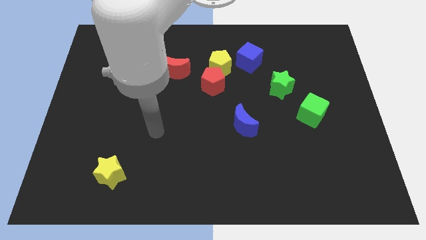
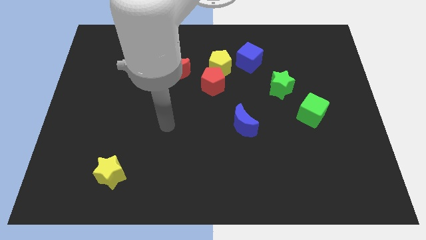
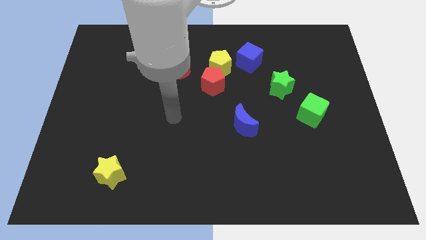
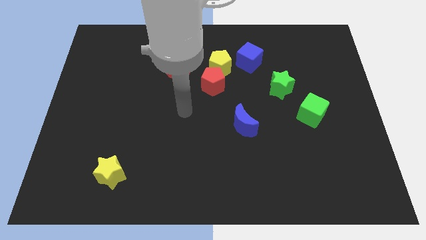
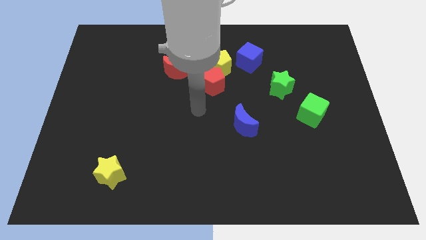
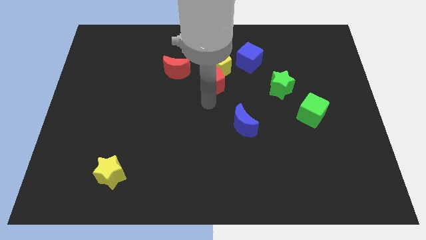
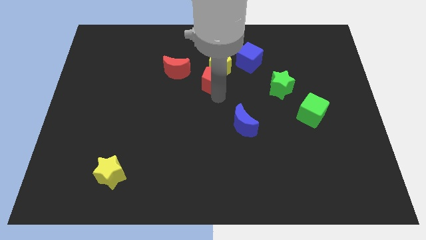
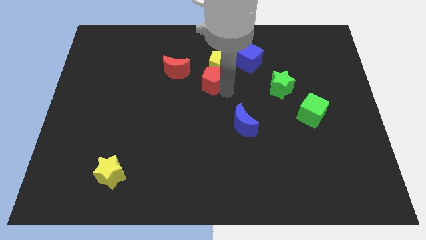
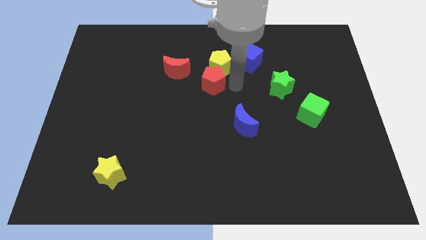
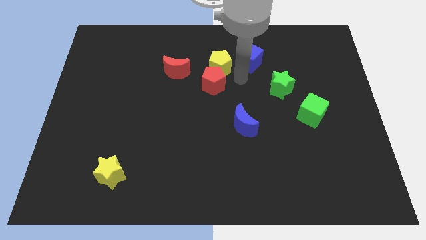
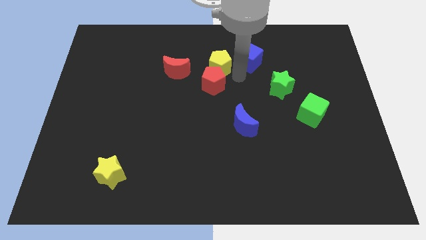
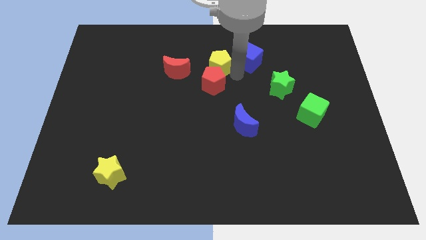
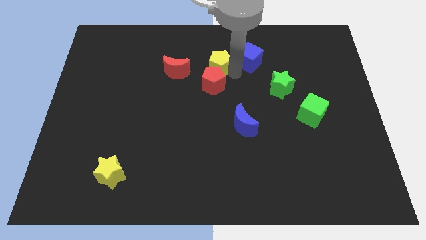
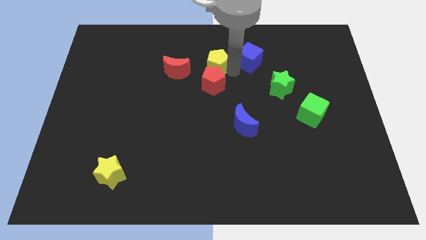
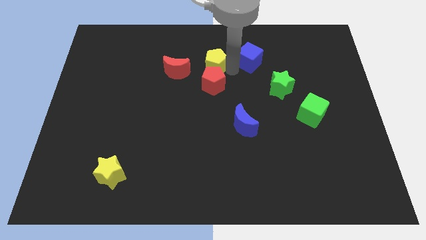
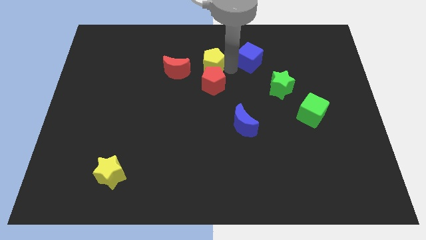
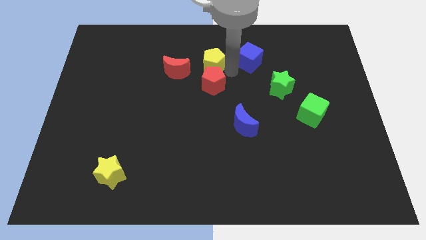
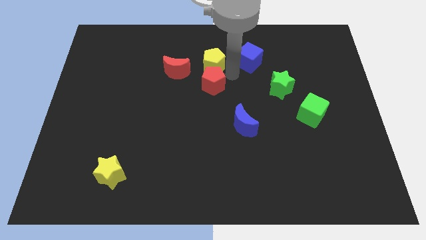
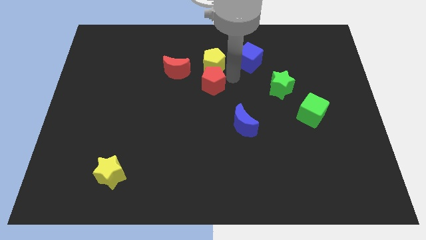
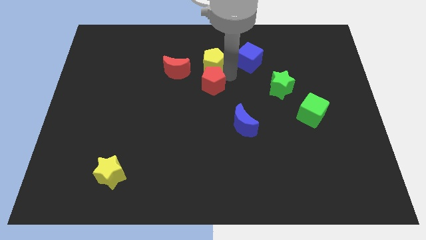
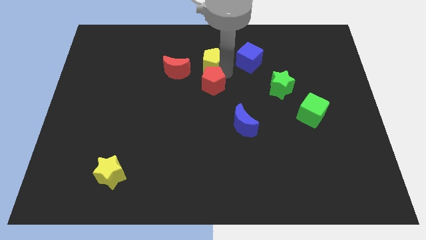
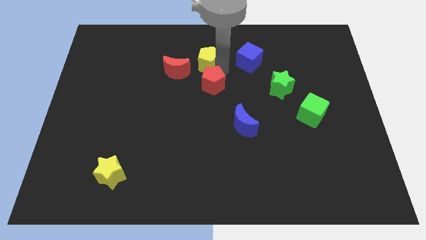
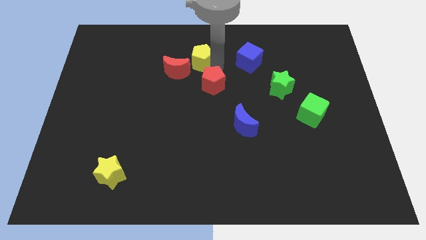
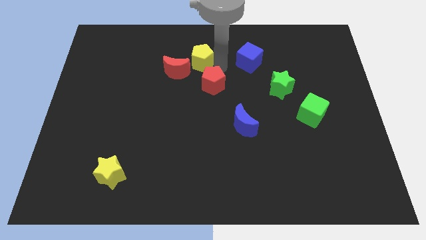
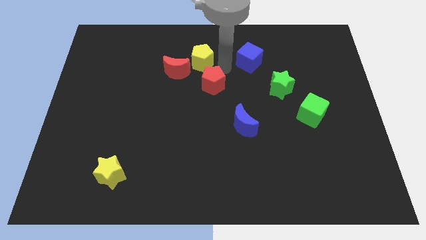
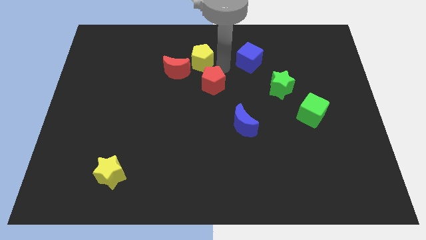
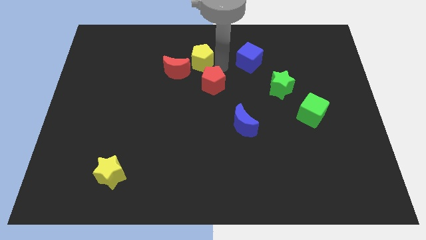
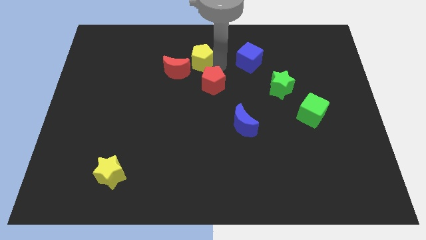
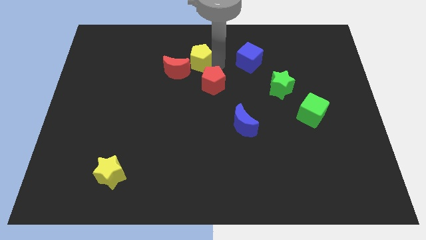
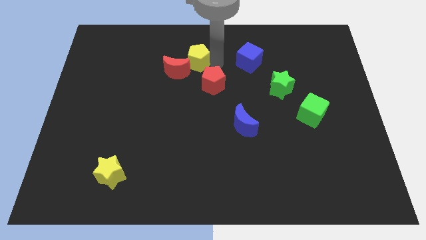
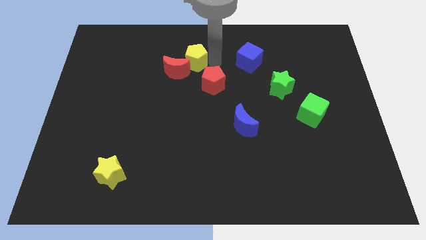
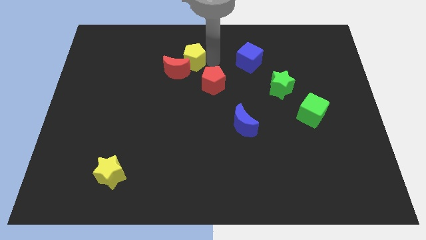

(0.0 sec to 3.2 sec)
pull the yellow pentagon apart from the red pentagon and blue cube

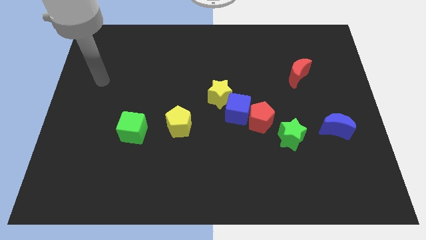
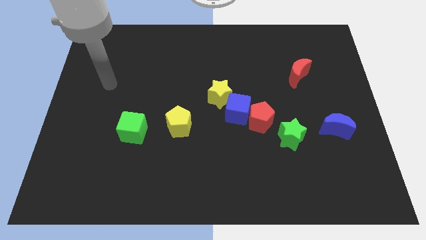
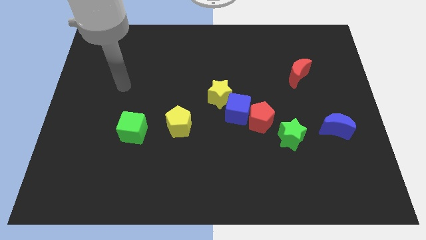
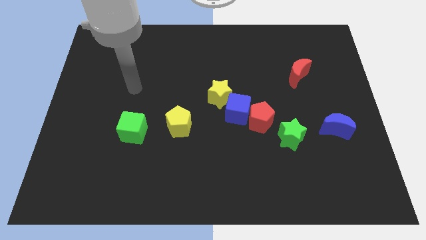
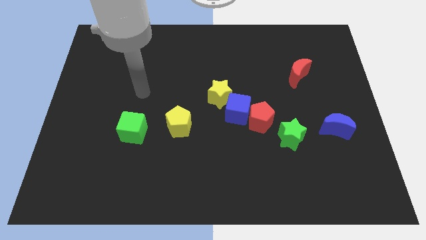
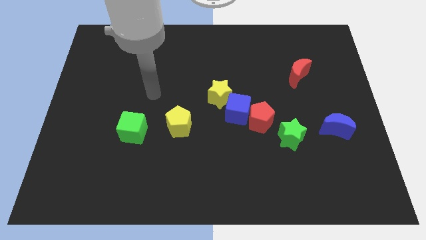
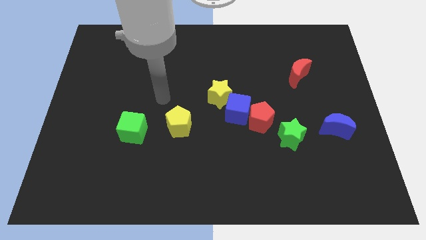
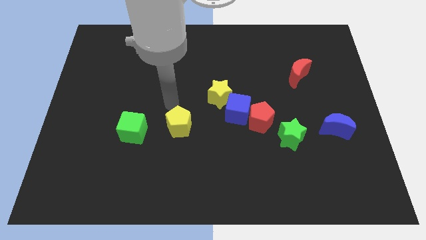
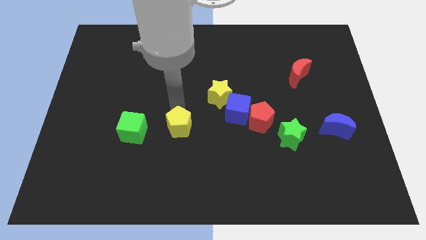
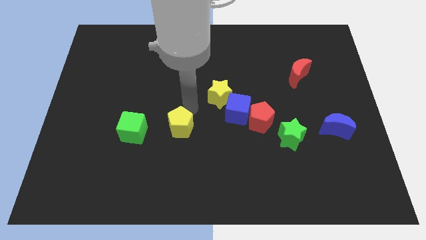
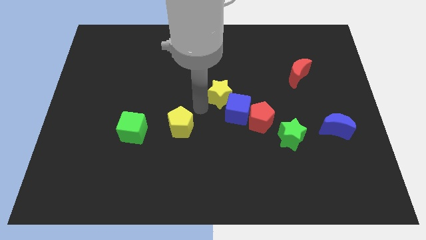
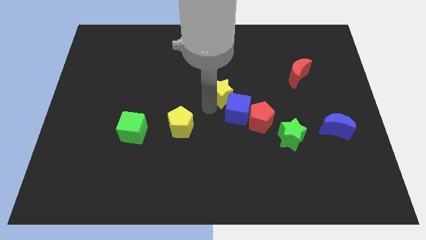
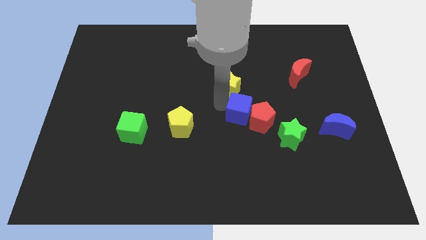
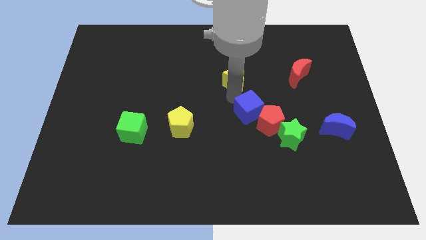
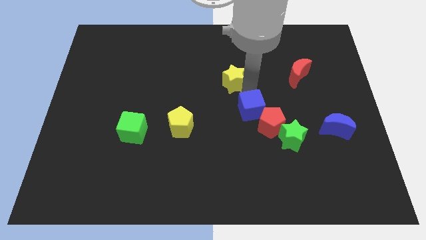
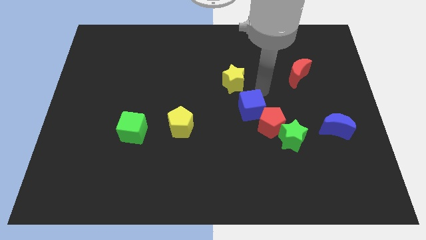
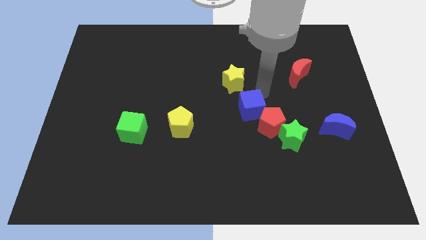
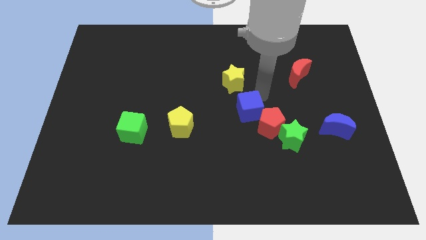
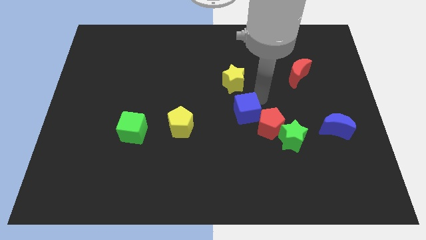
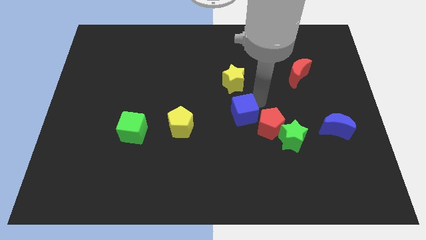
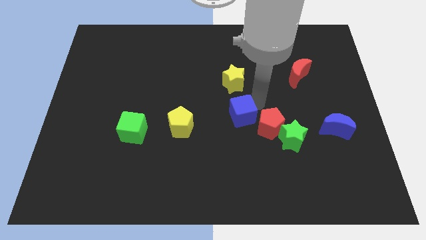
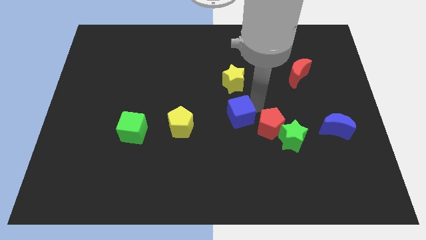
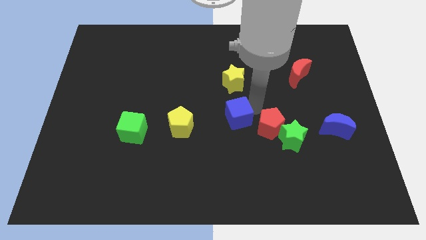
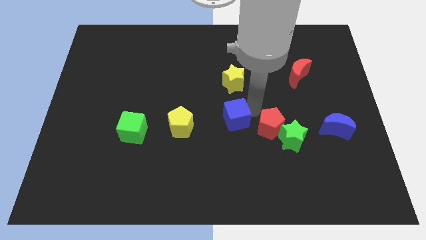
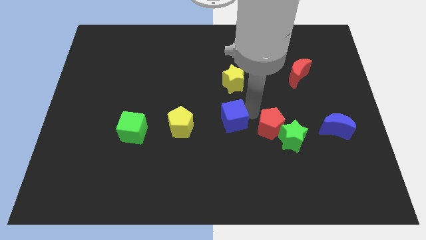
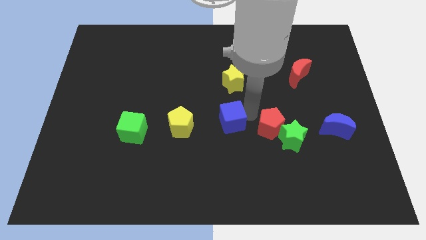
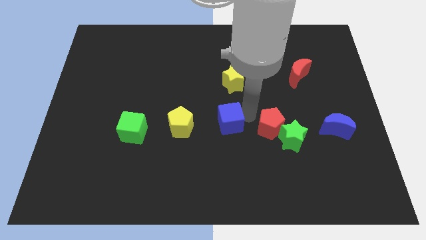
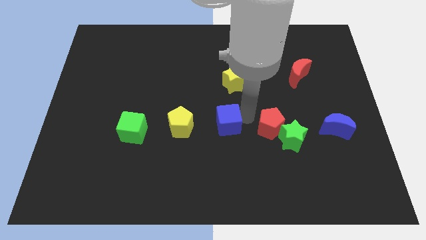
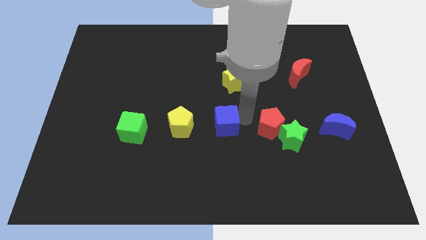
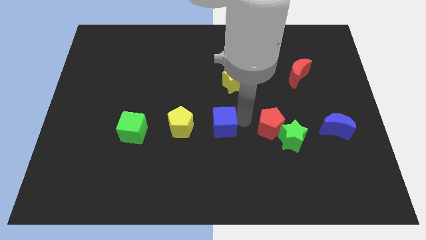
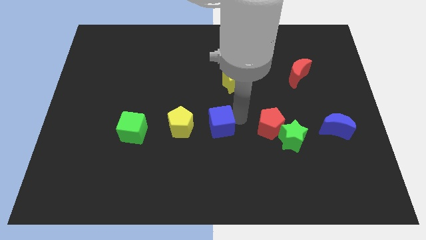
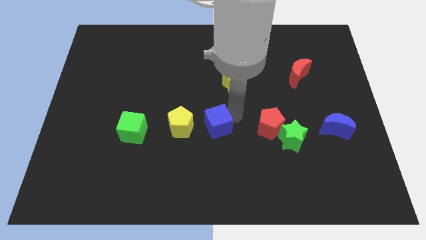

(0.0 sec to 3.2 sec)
move the blue cube away from the red pentagon and yellow star

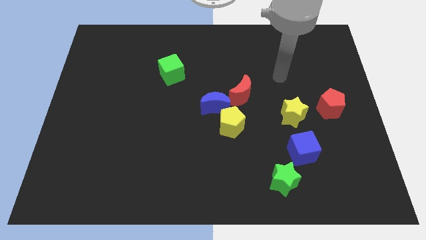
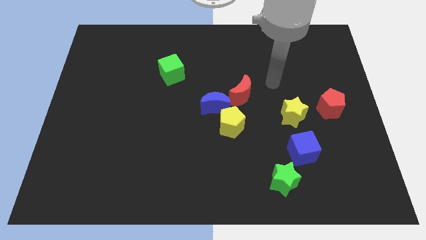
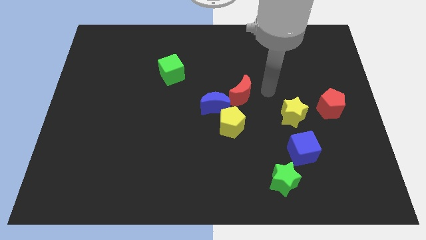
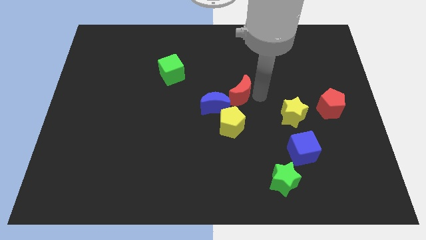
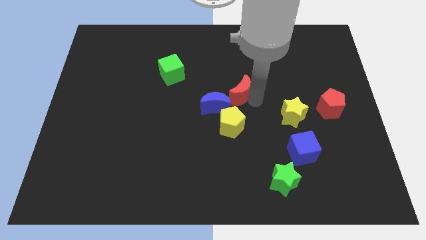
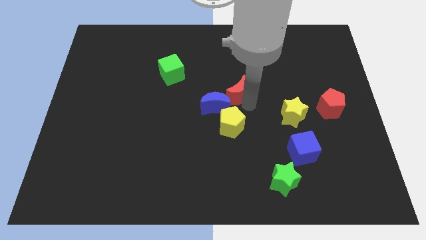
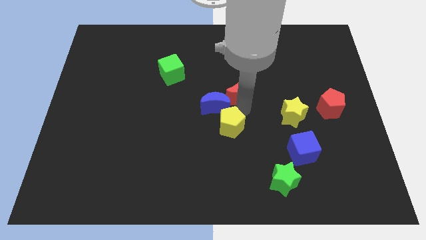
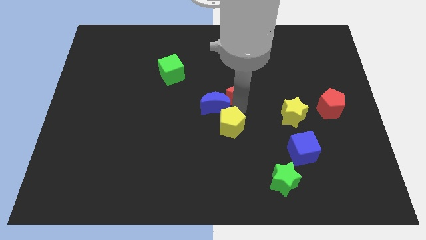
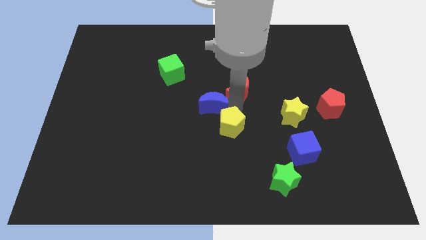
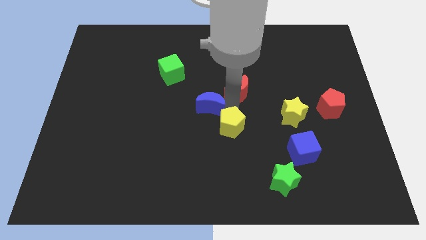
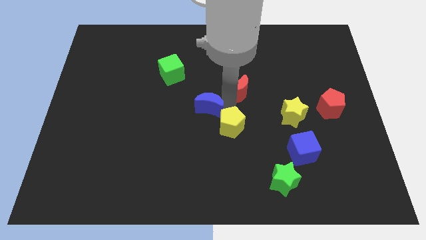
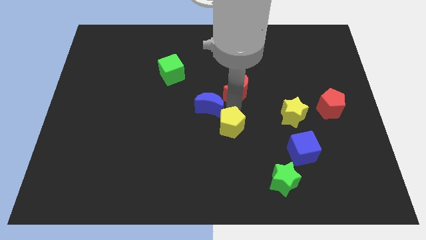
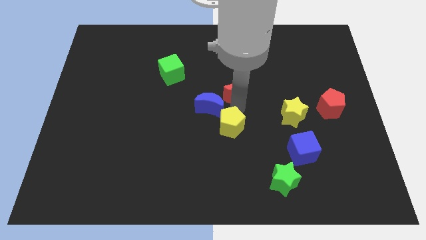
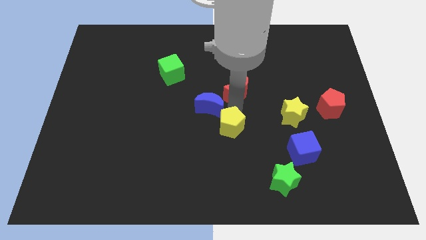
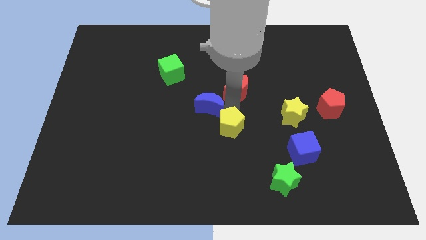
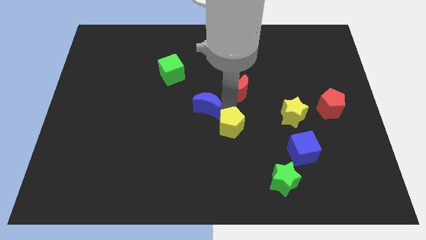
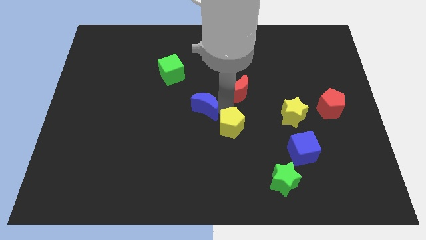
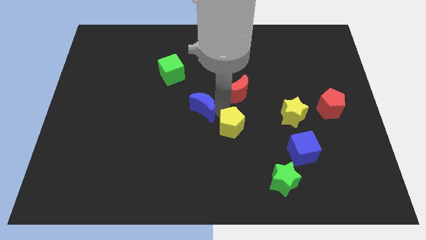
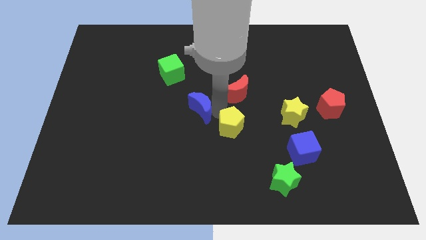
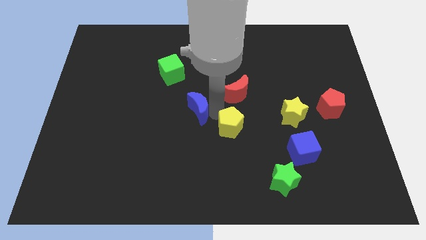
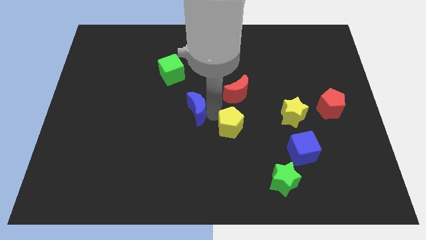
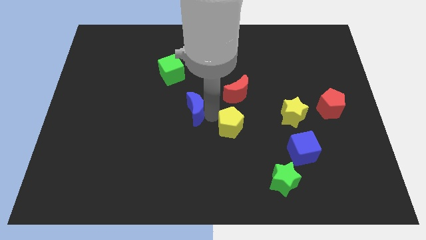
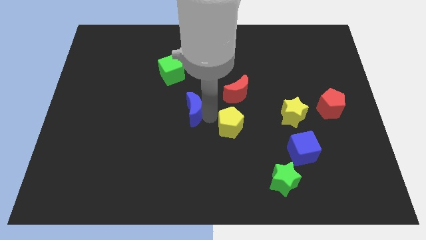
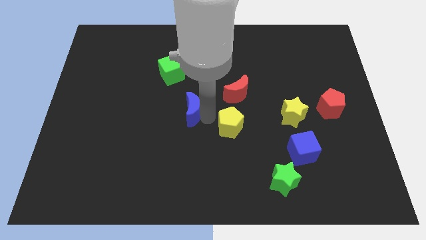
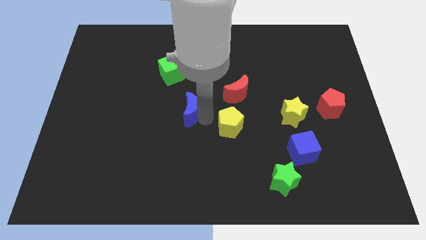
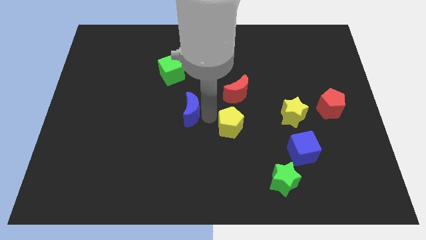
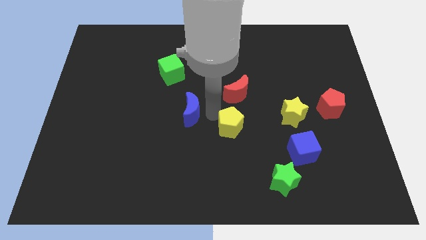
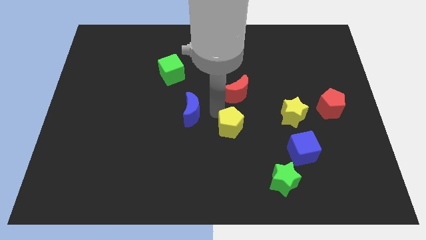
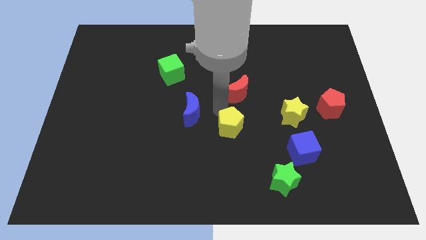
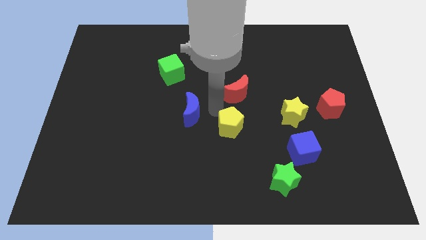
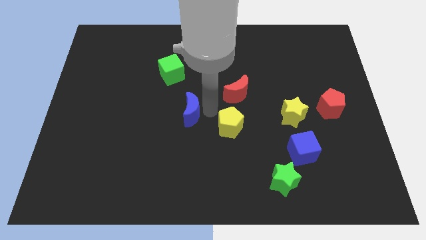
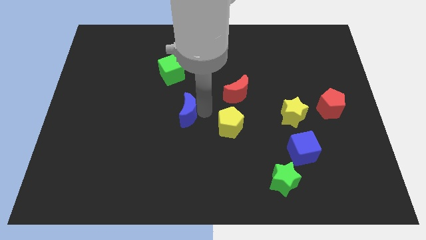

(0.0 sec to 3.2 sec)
separate the blue moon from the yellow pentagon and red moon
